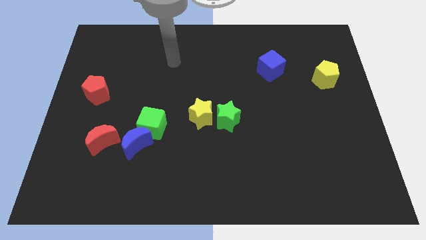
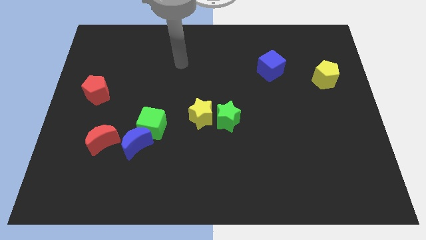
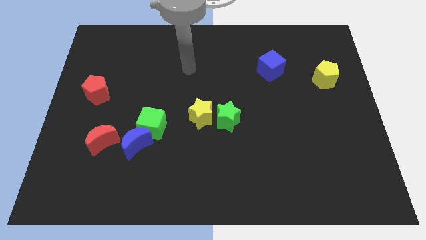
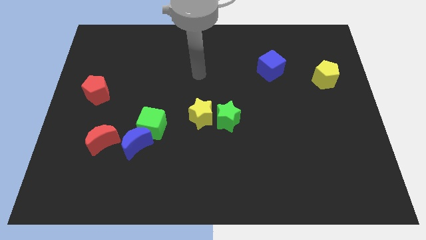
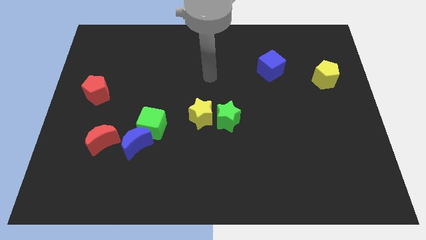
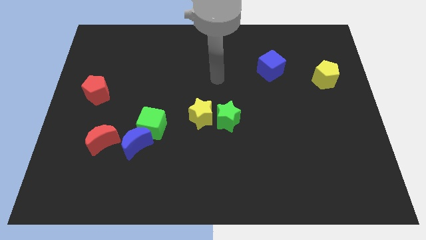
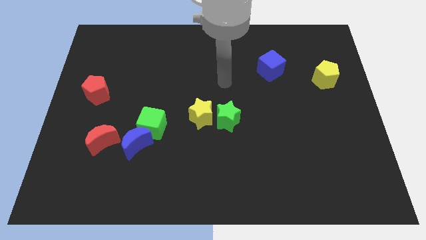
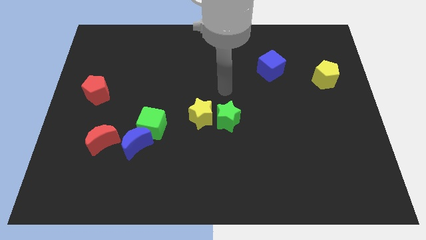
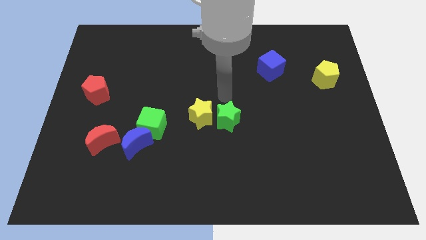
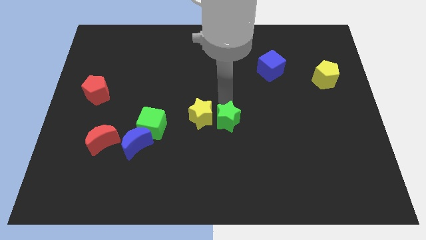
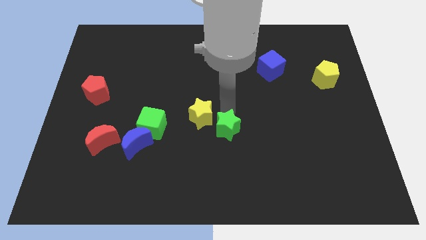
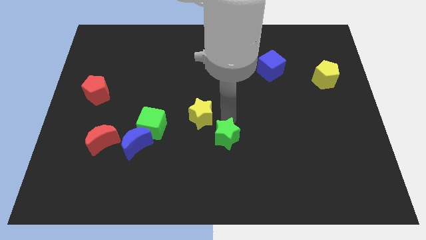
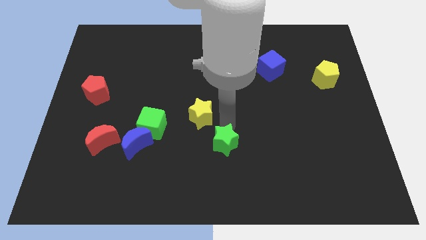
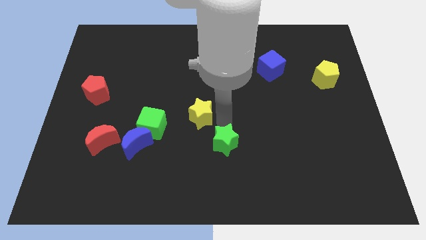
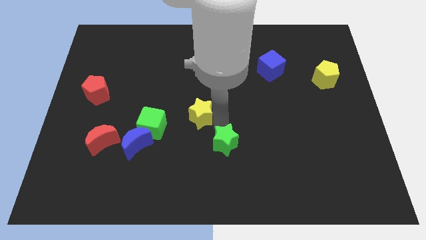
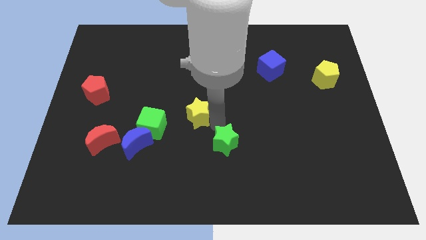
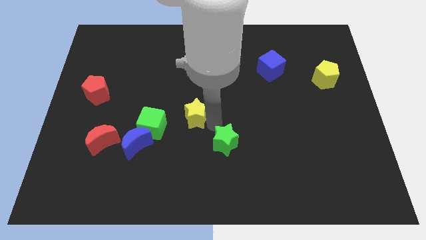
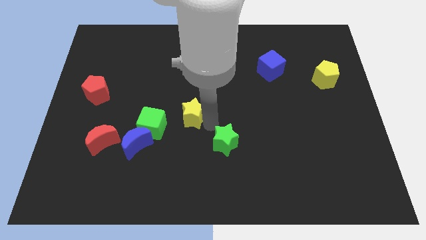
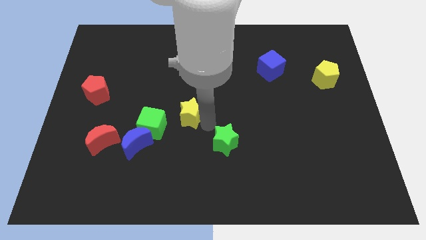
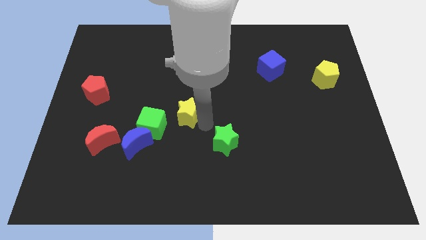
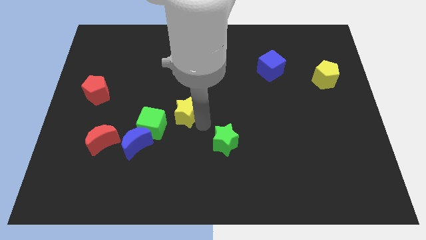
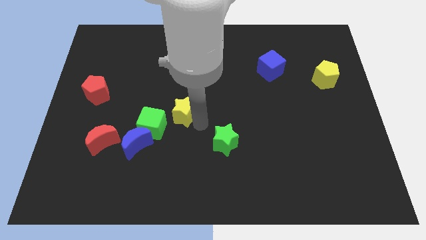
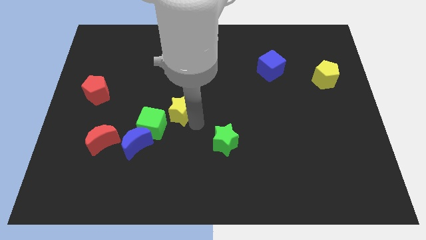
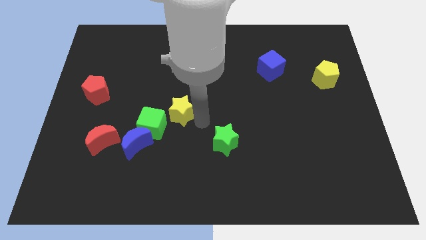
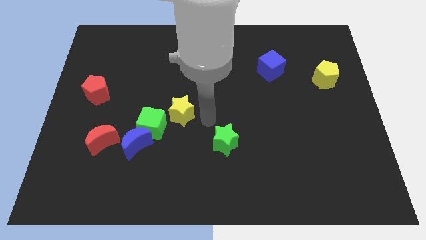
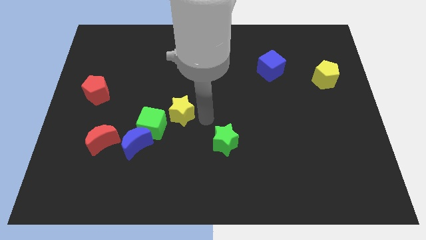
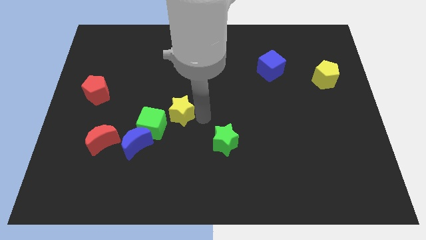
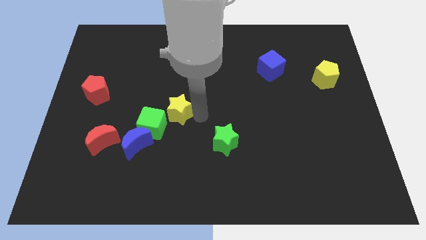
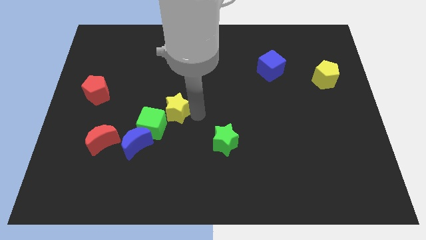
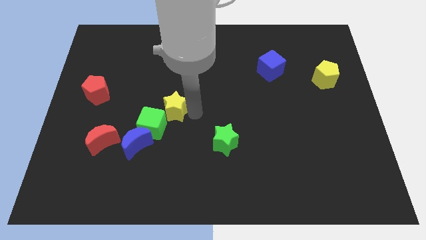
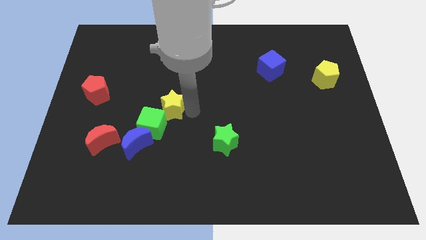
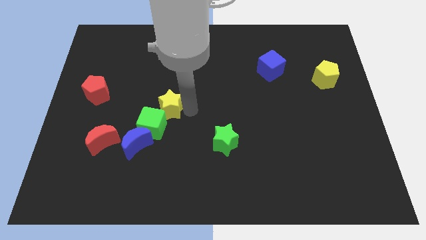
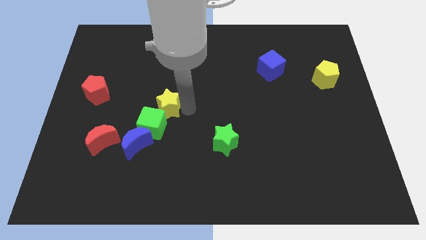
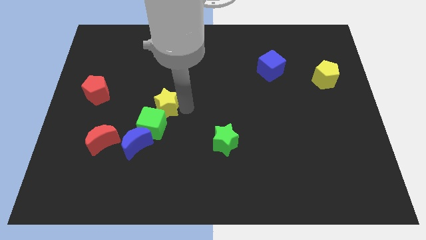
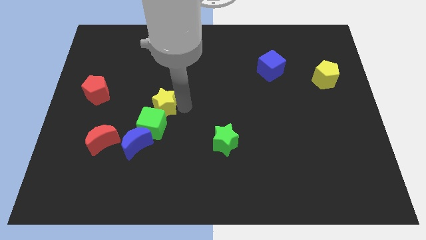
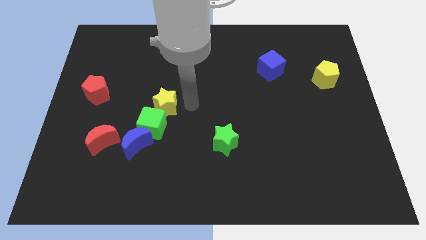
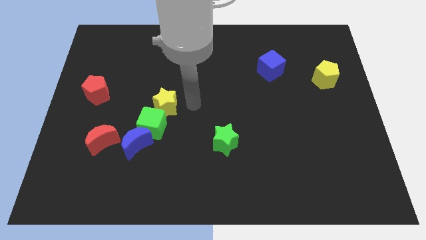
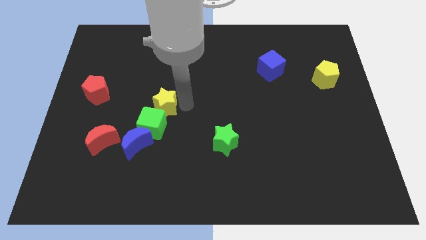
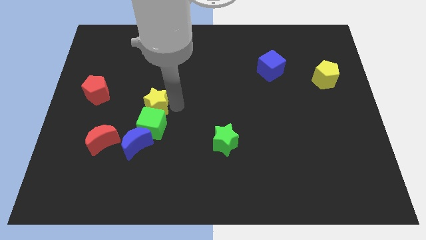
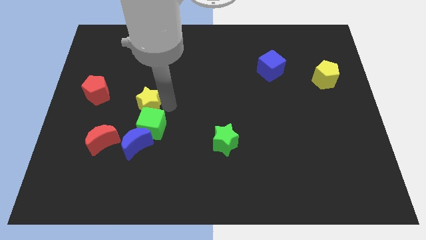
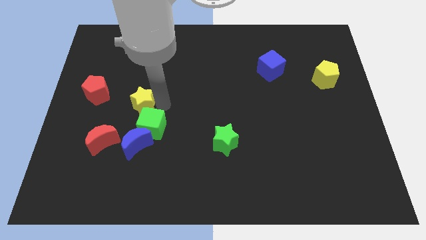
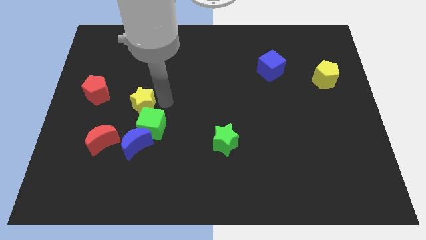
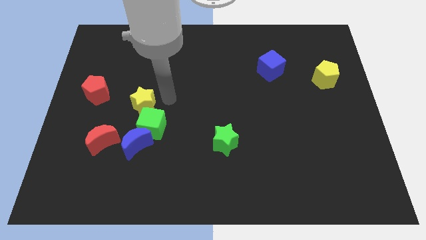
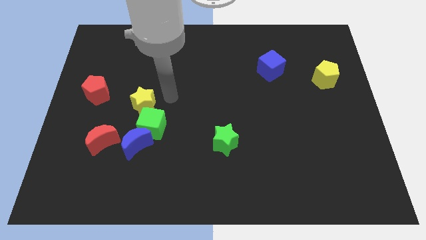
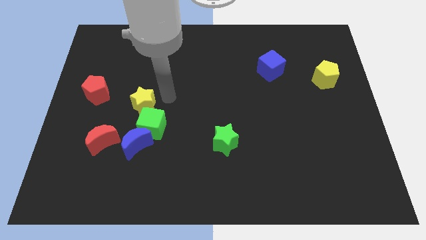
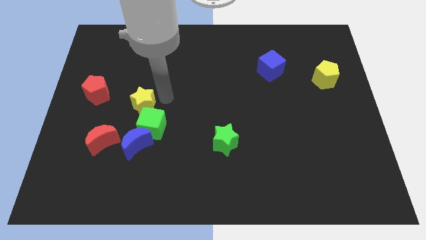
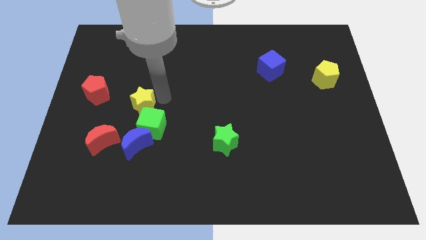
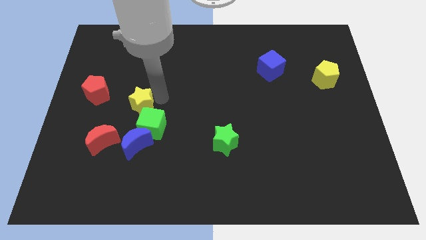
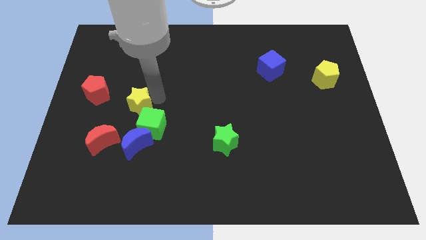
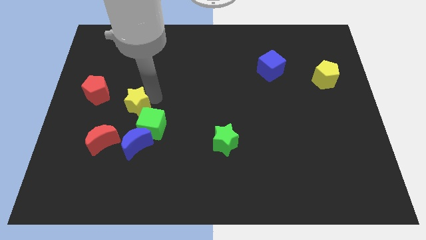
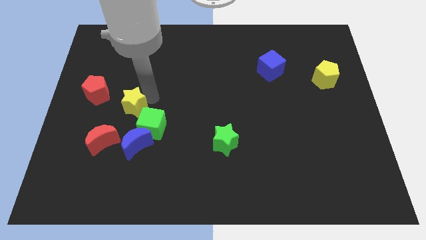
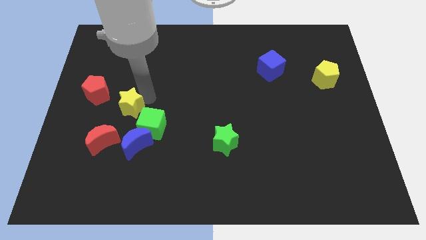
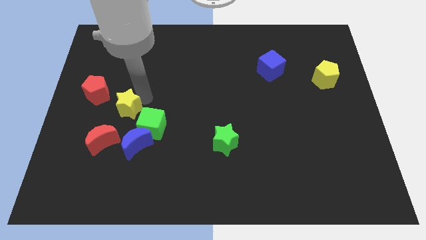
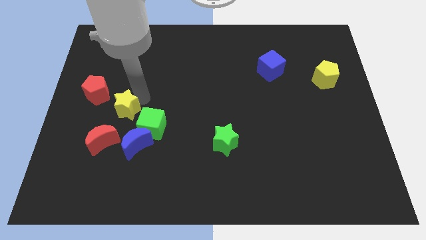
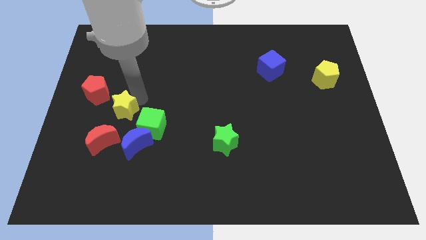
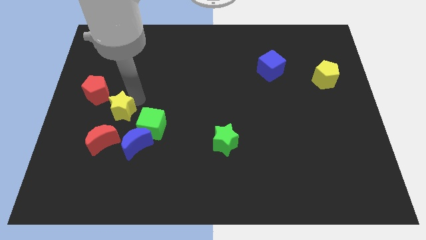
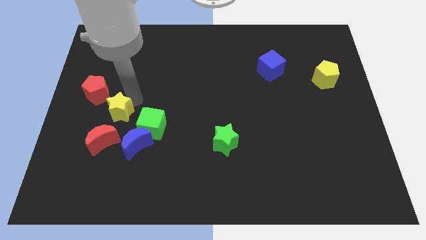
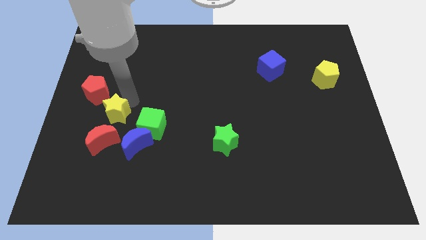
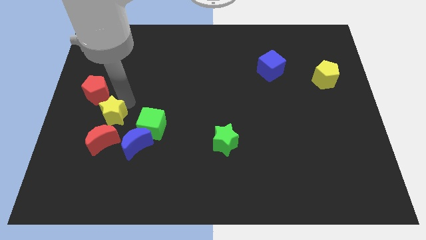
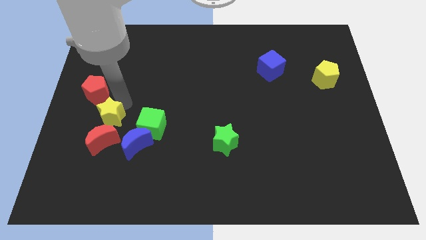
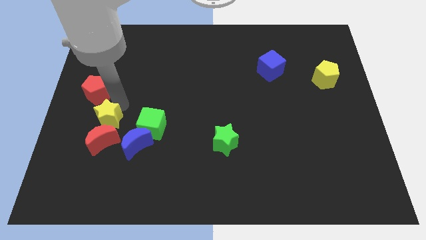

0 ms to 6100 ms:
put the yellow star towards the red moon

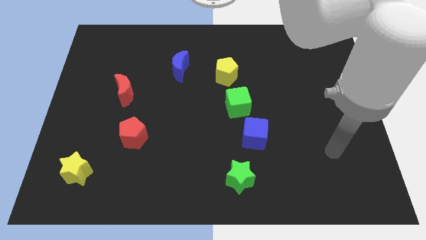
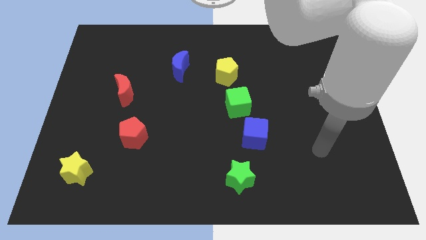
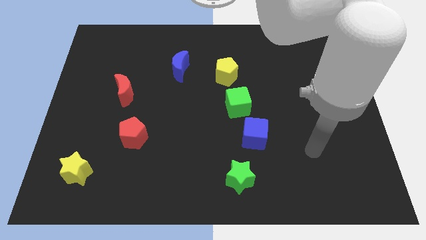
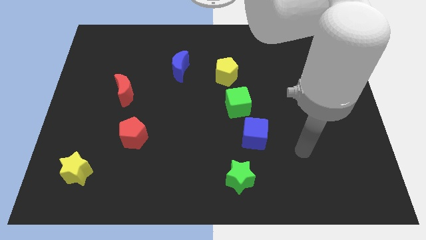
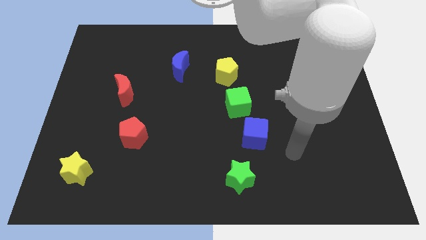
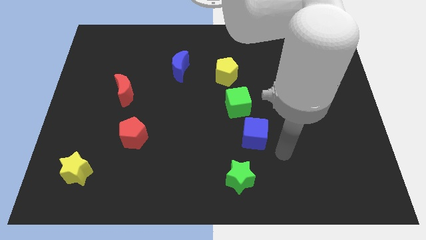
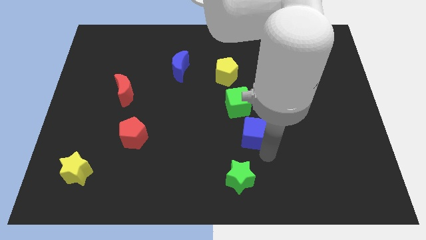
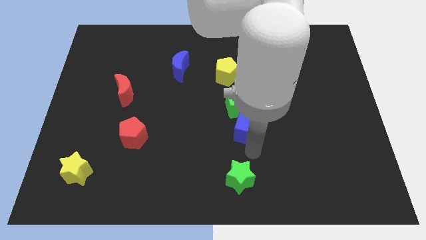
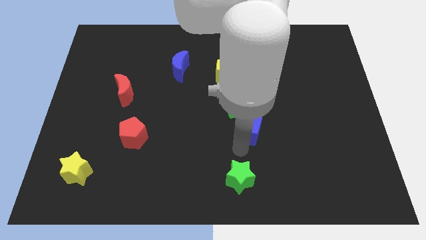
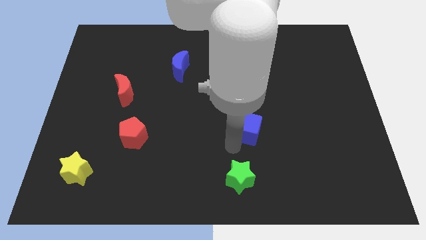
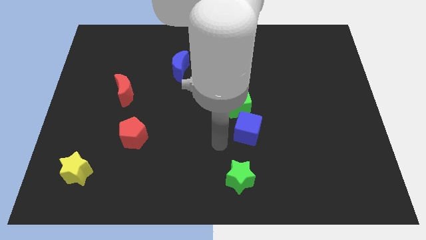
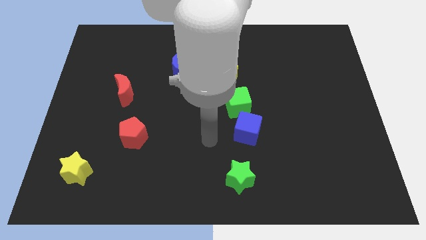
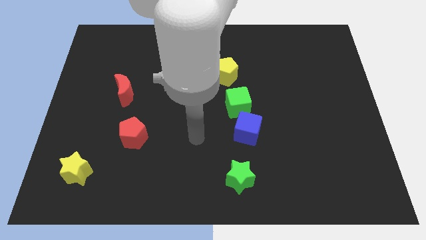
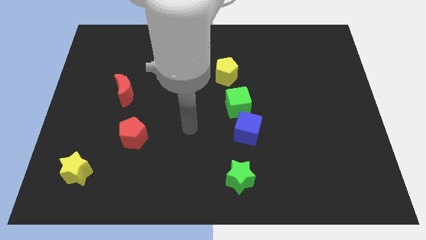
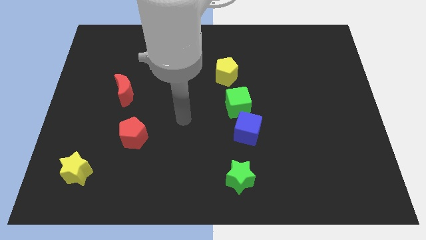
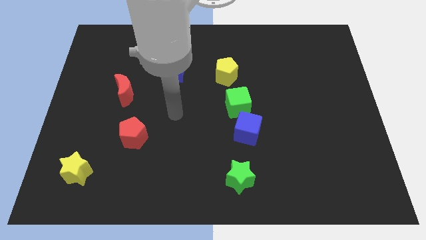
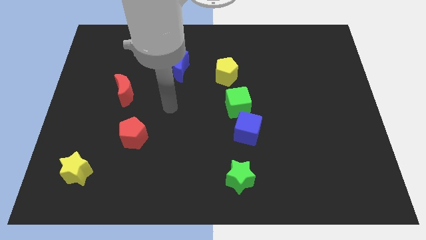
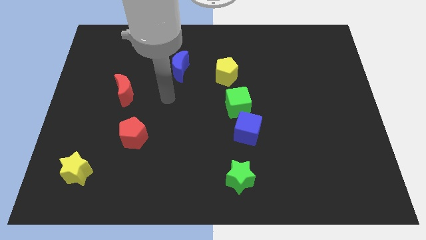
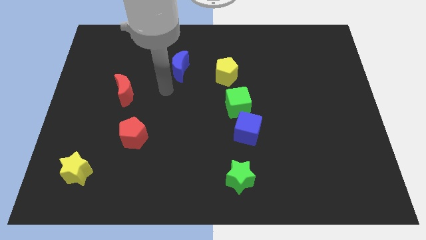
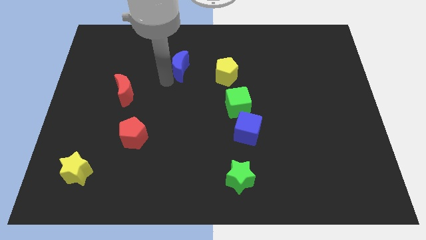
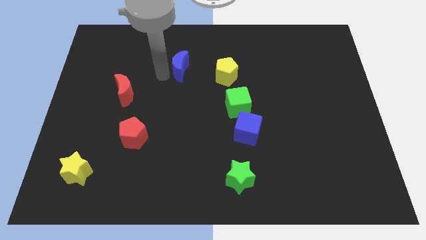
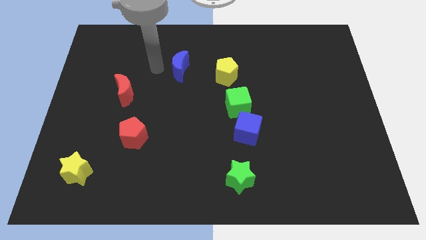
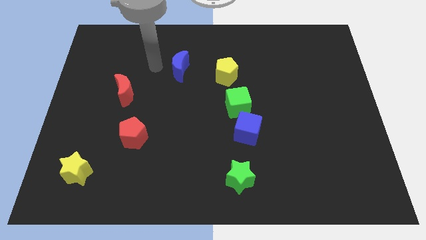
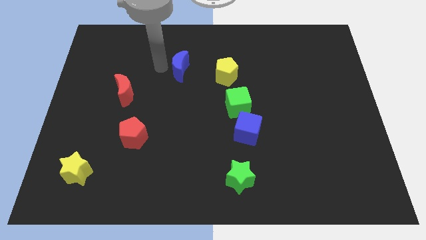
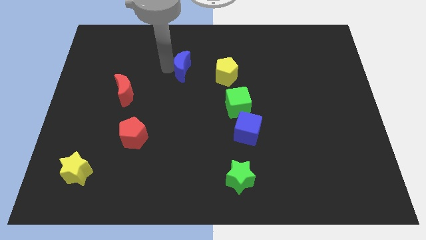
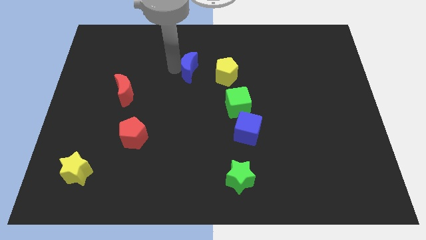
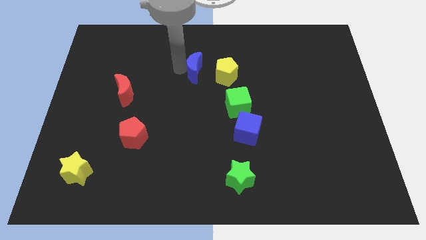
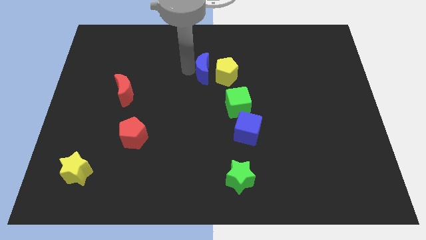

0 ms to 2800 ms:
put the blue moon to the yellow pentagon
